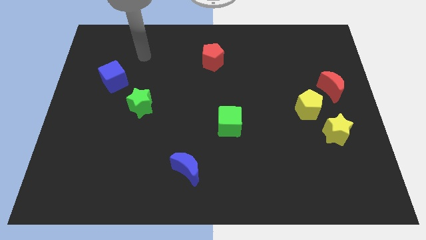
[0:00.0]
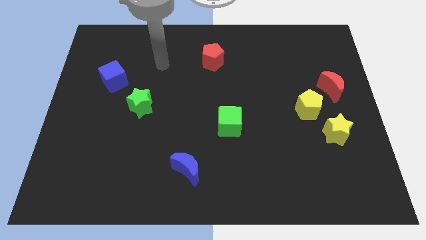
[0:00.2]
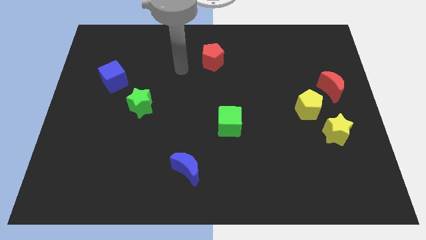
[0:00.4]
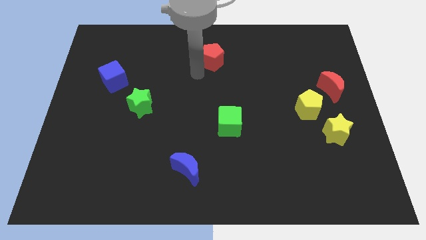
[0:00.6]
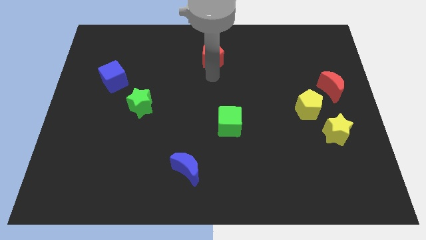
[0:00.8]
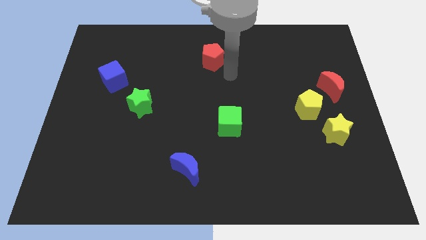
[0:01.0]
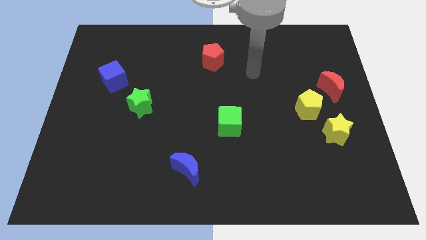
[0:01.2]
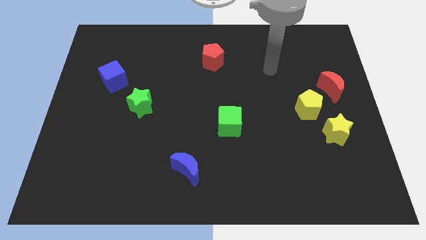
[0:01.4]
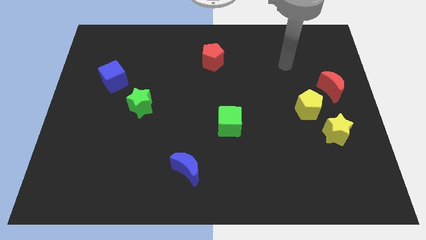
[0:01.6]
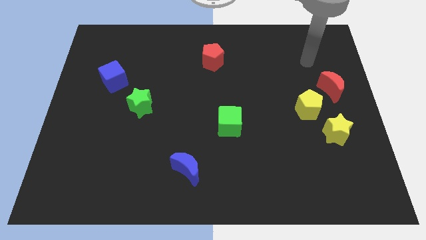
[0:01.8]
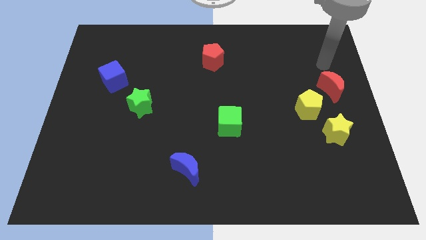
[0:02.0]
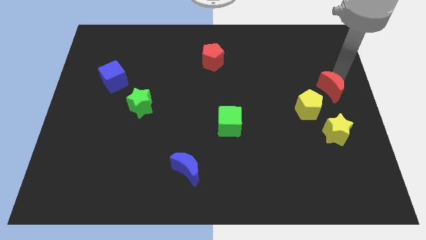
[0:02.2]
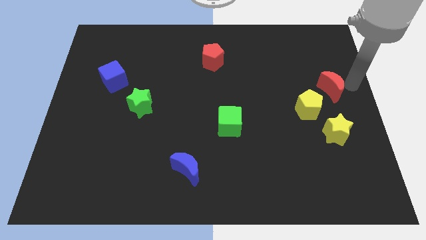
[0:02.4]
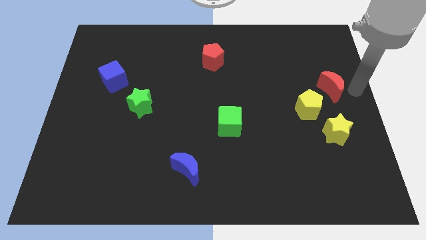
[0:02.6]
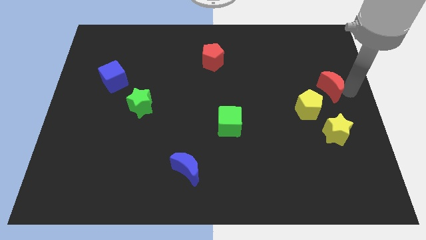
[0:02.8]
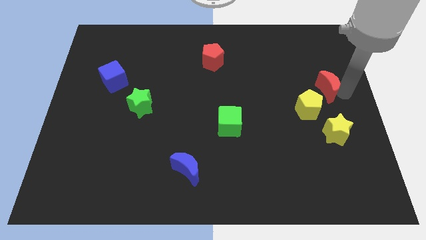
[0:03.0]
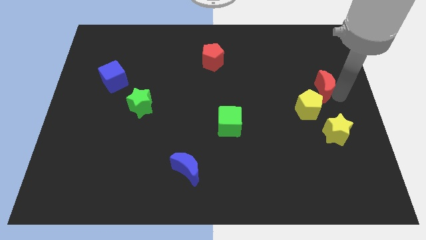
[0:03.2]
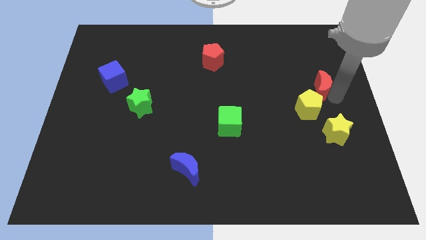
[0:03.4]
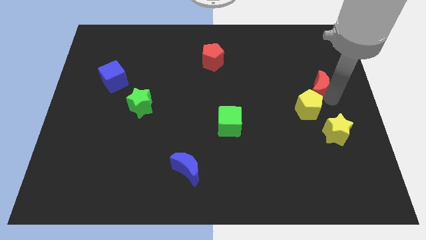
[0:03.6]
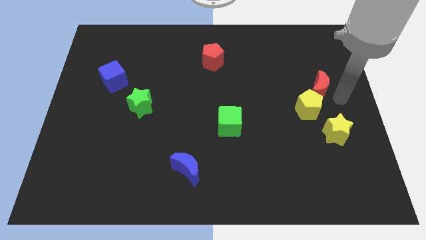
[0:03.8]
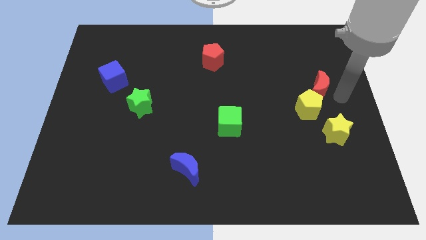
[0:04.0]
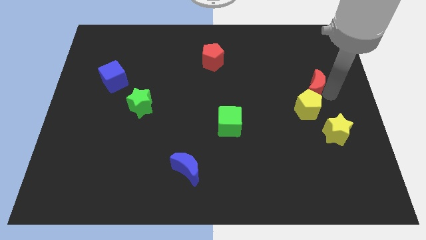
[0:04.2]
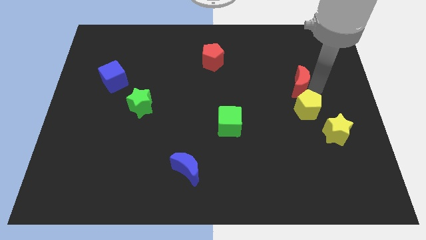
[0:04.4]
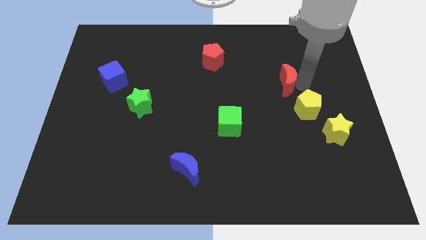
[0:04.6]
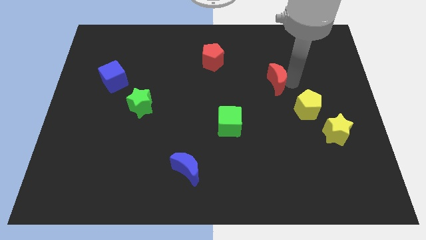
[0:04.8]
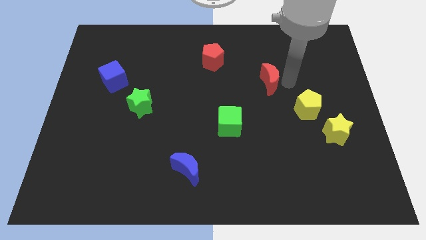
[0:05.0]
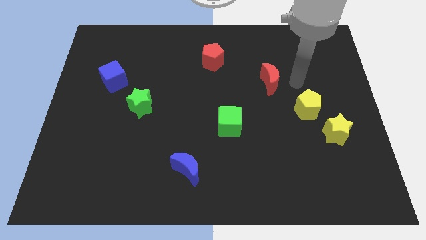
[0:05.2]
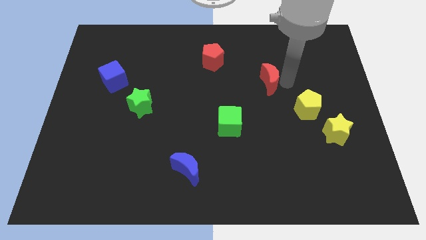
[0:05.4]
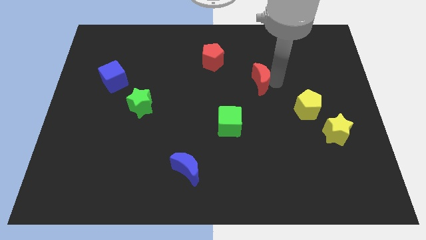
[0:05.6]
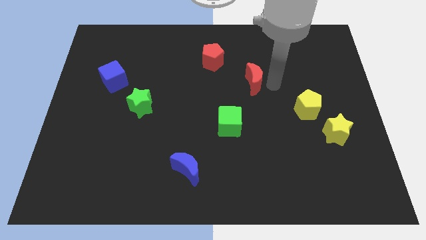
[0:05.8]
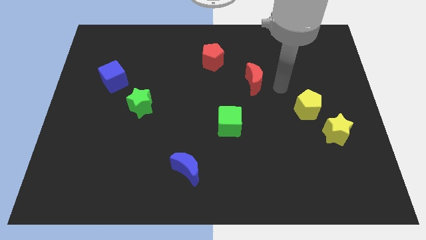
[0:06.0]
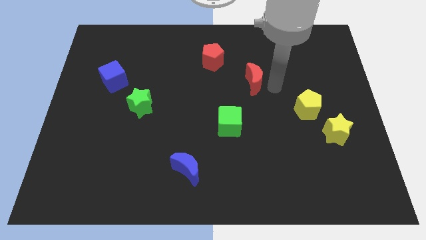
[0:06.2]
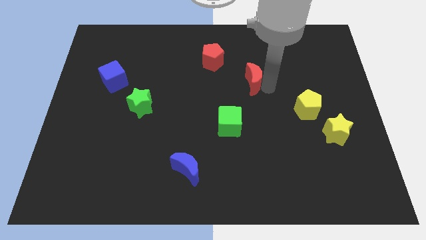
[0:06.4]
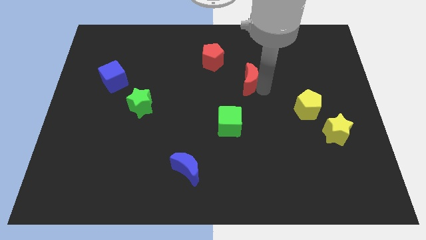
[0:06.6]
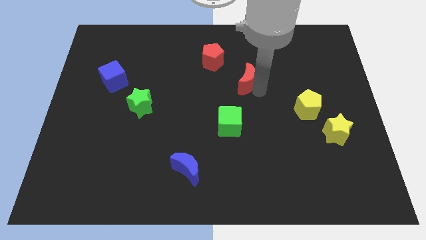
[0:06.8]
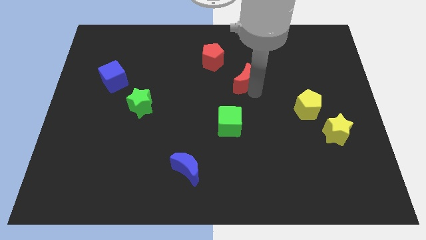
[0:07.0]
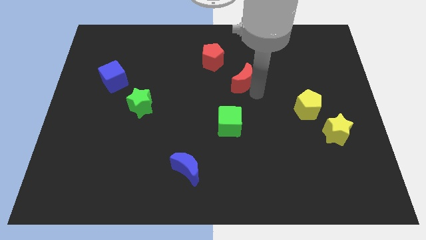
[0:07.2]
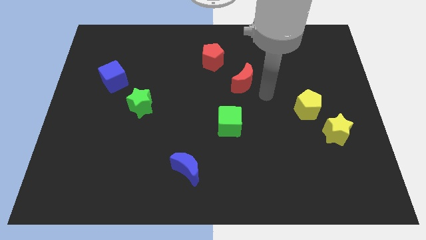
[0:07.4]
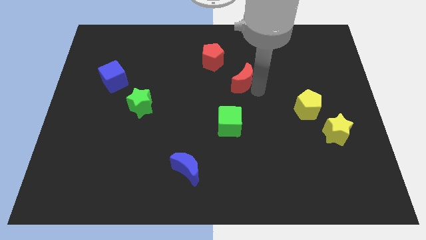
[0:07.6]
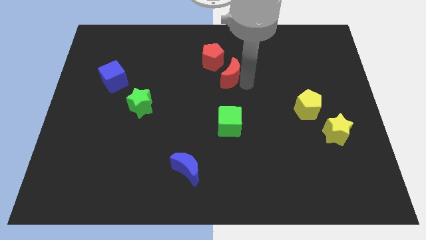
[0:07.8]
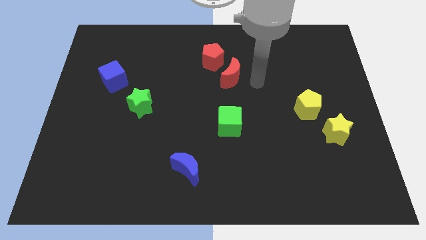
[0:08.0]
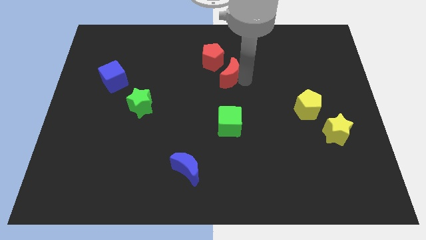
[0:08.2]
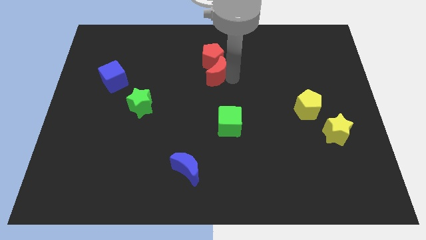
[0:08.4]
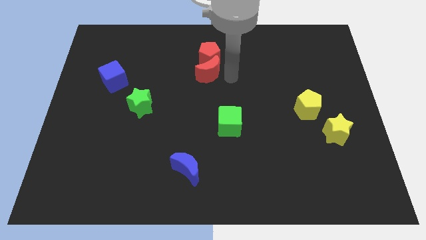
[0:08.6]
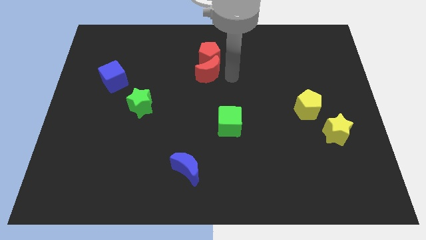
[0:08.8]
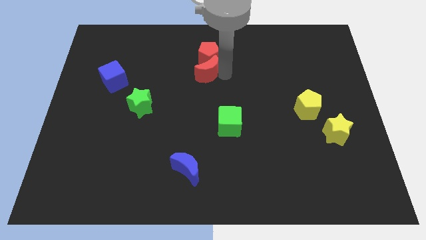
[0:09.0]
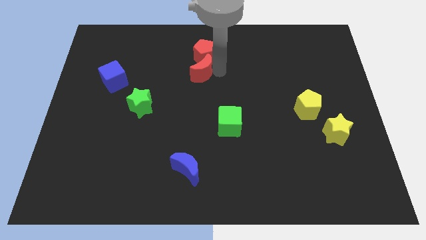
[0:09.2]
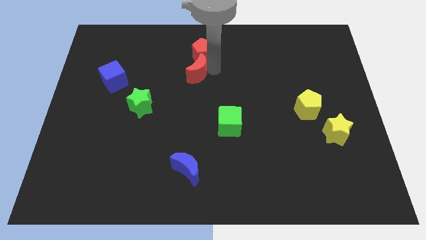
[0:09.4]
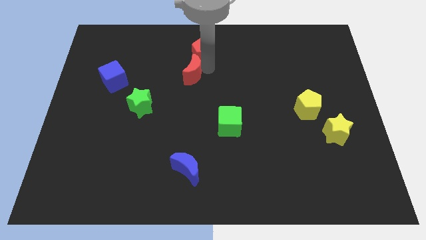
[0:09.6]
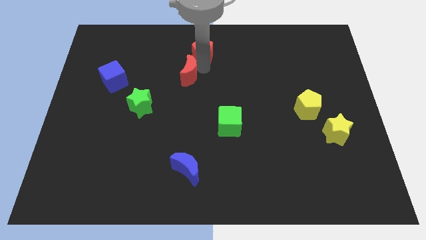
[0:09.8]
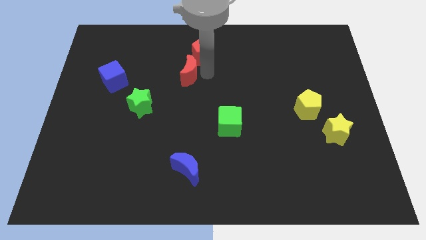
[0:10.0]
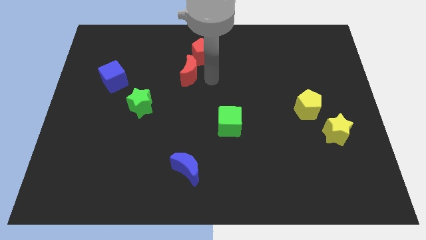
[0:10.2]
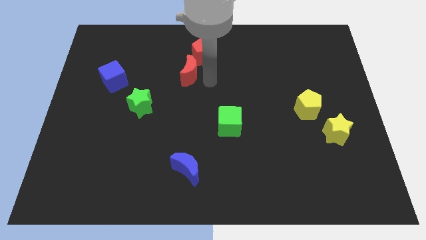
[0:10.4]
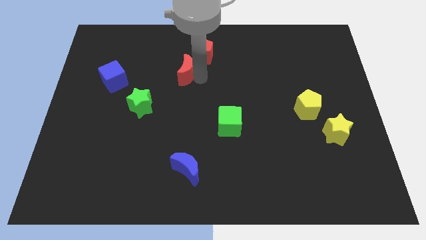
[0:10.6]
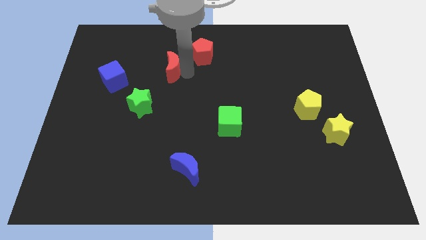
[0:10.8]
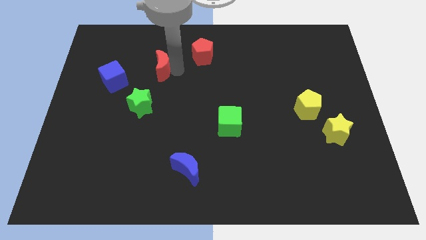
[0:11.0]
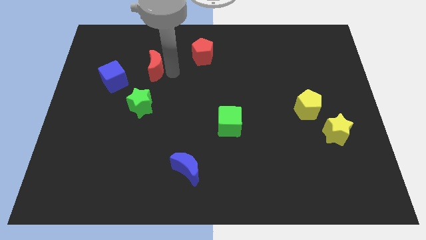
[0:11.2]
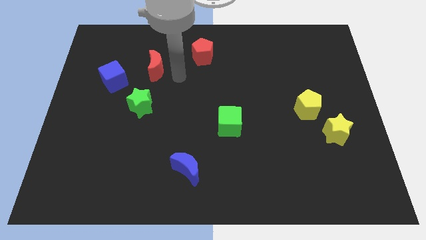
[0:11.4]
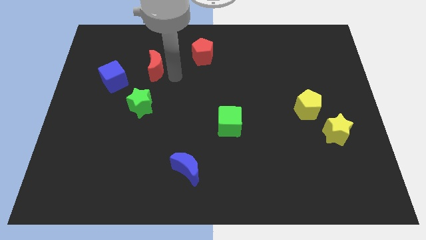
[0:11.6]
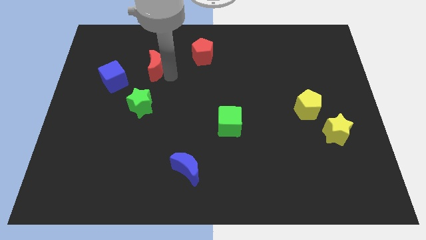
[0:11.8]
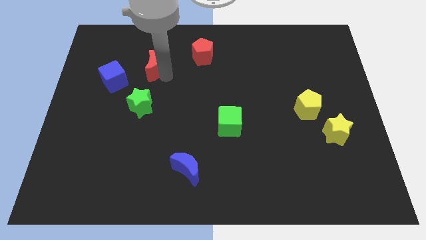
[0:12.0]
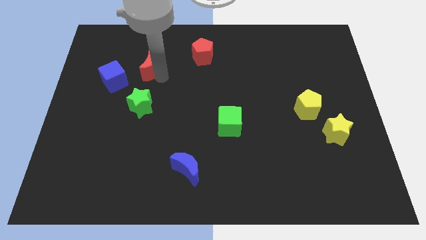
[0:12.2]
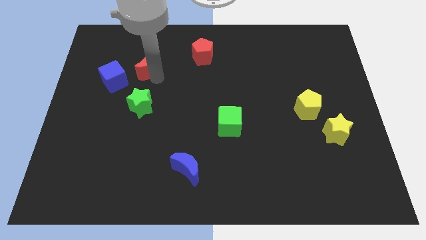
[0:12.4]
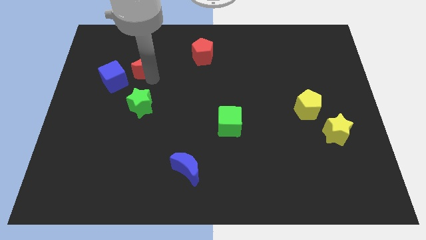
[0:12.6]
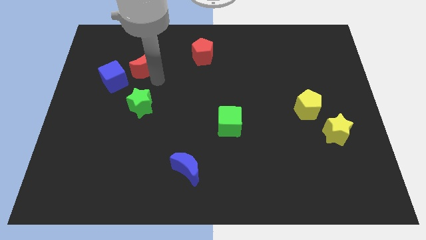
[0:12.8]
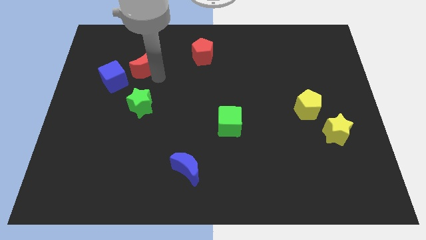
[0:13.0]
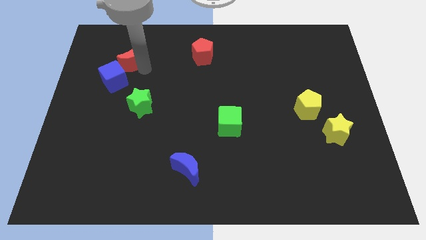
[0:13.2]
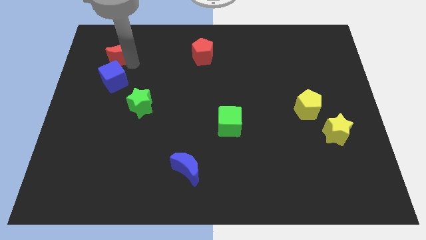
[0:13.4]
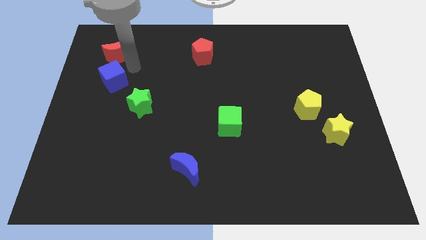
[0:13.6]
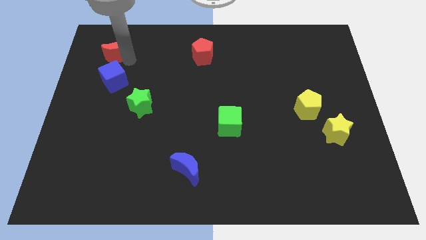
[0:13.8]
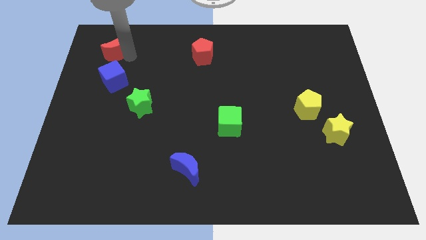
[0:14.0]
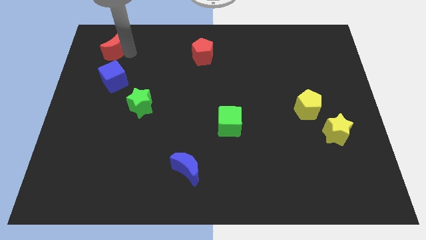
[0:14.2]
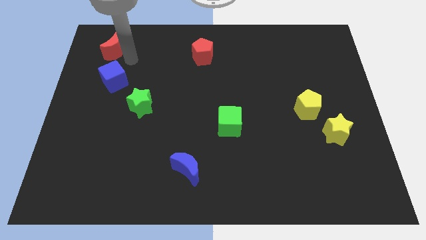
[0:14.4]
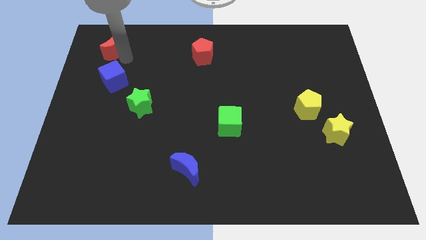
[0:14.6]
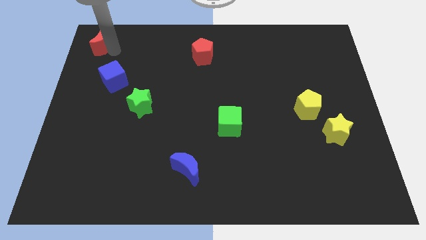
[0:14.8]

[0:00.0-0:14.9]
put the red moon to the upper left corner

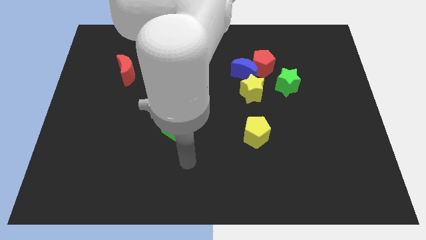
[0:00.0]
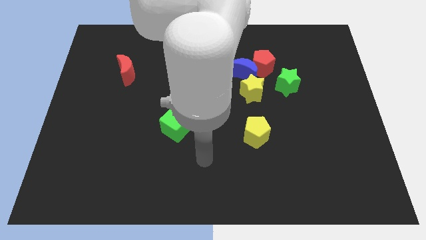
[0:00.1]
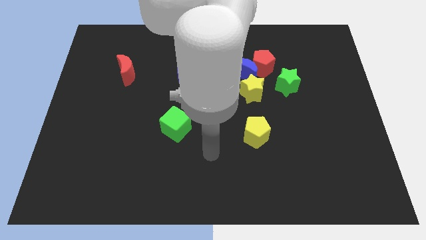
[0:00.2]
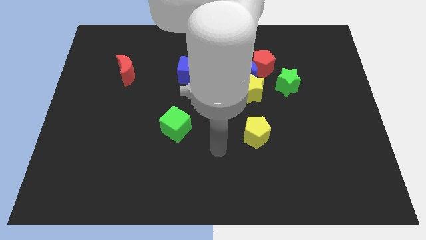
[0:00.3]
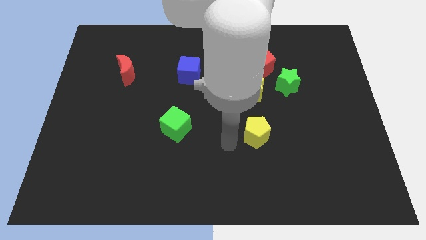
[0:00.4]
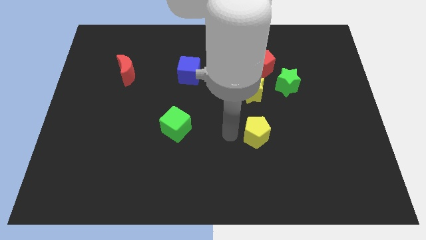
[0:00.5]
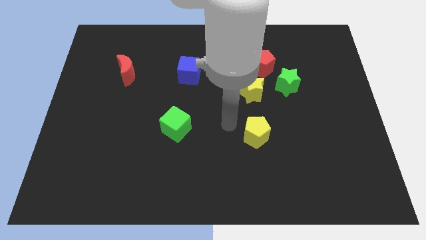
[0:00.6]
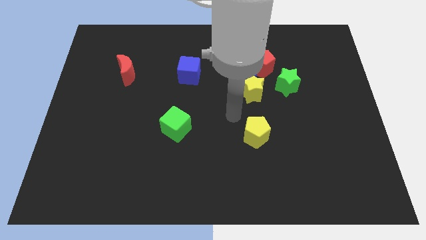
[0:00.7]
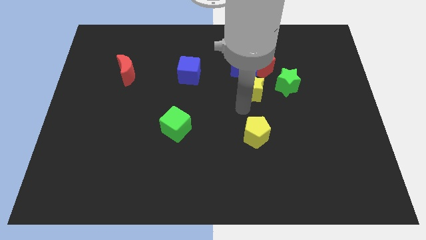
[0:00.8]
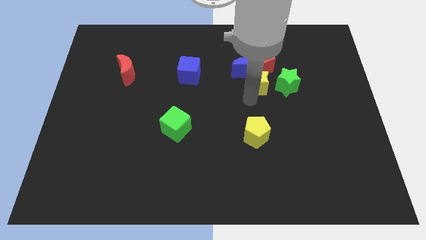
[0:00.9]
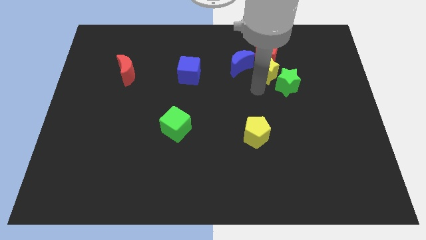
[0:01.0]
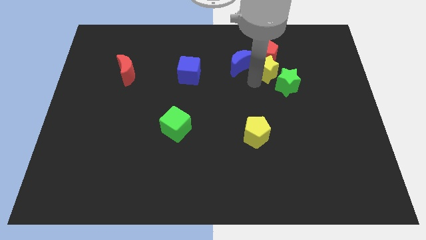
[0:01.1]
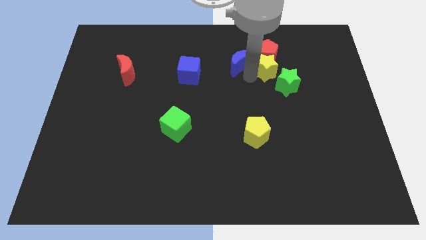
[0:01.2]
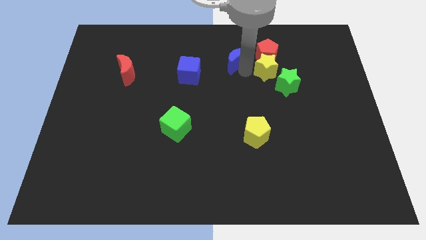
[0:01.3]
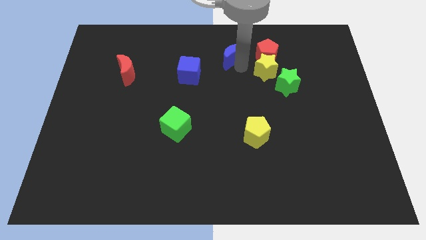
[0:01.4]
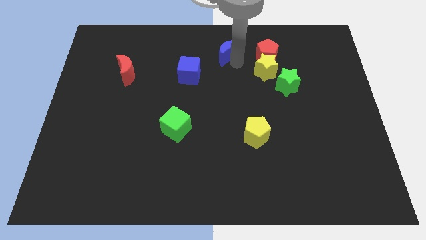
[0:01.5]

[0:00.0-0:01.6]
push the blue moon to the towards your base
